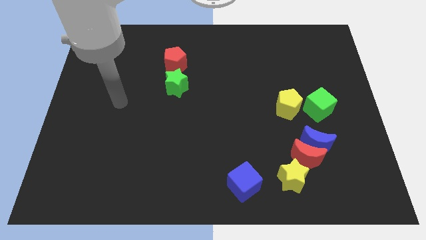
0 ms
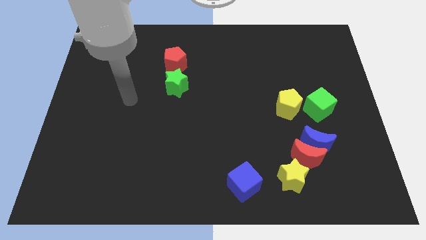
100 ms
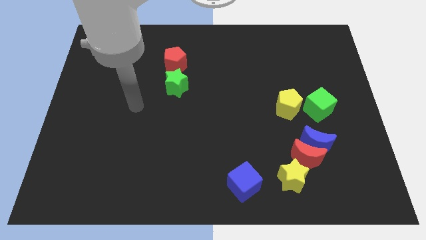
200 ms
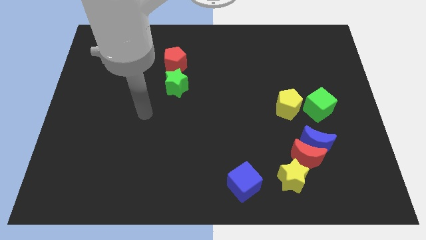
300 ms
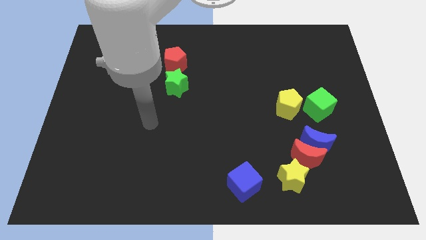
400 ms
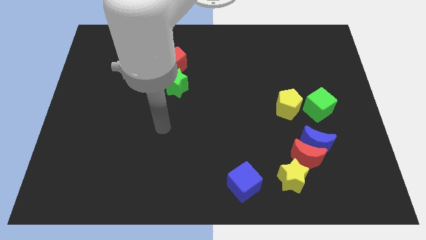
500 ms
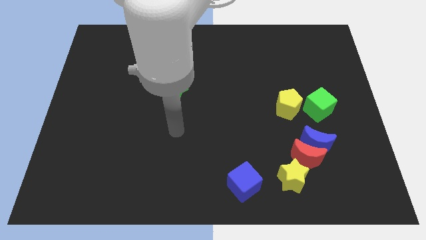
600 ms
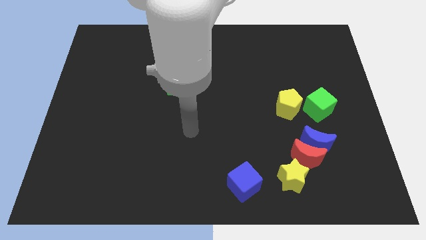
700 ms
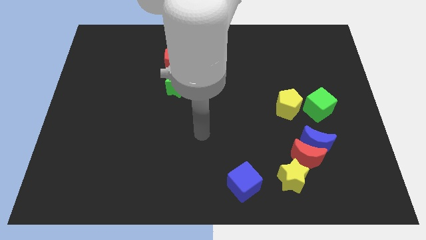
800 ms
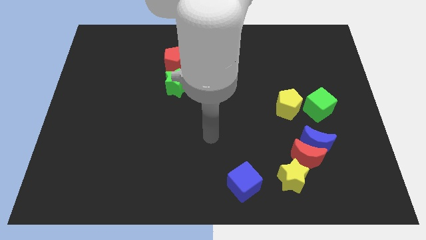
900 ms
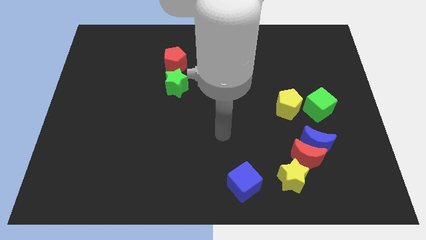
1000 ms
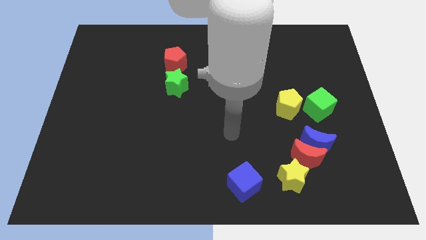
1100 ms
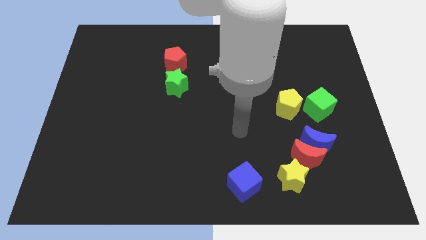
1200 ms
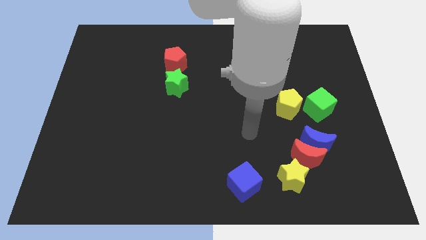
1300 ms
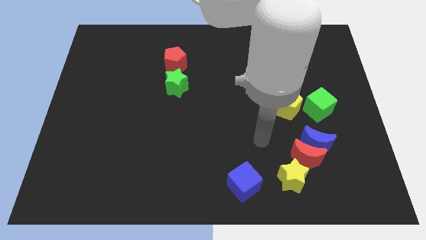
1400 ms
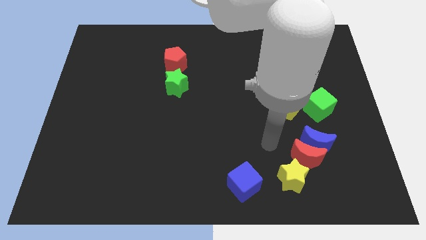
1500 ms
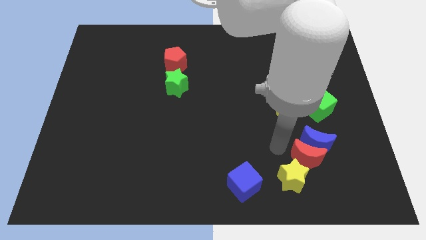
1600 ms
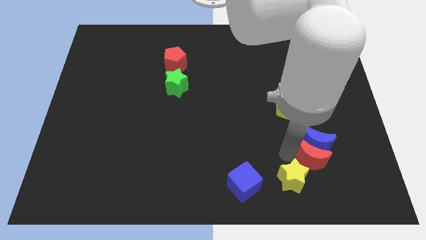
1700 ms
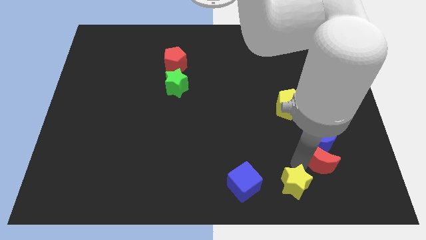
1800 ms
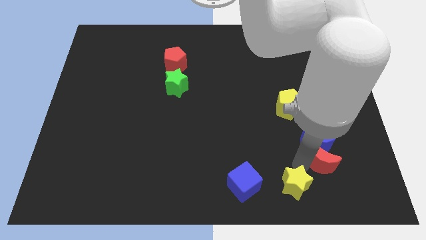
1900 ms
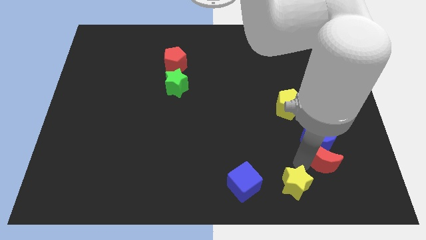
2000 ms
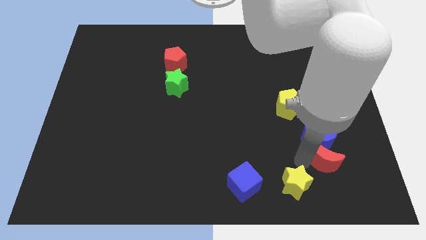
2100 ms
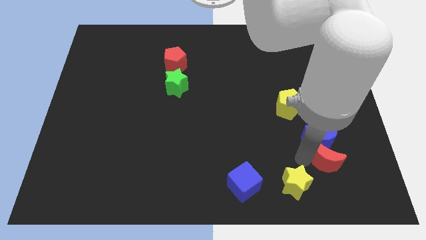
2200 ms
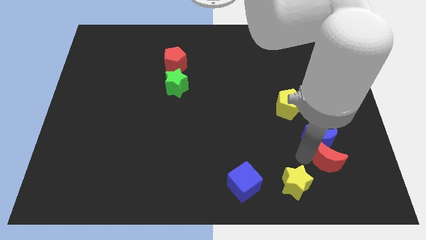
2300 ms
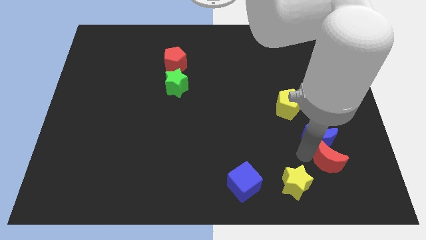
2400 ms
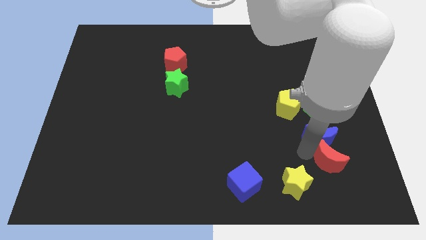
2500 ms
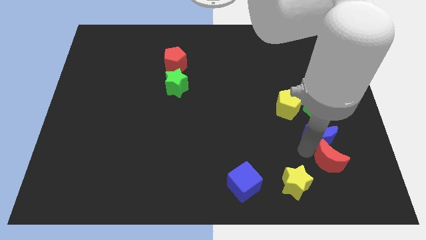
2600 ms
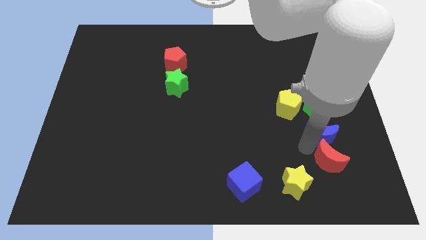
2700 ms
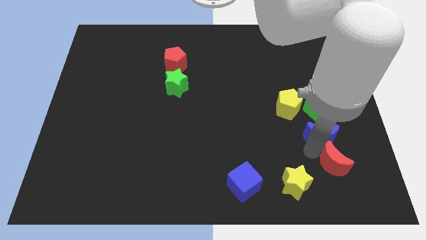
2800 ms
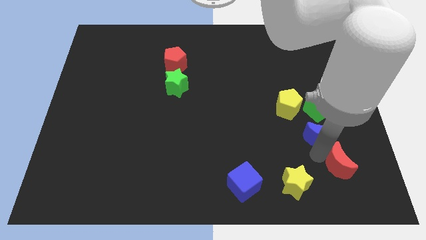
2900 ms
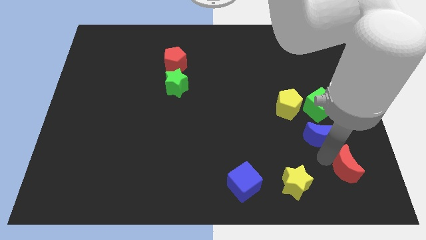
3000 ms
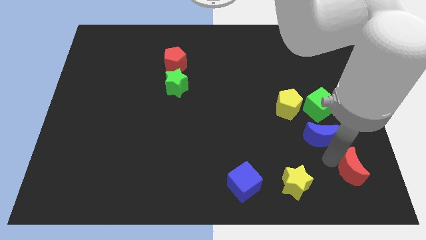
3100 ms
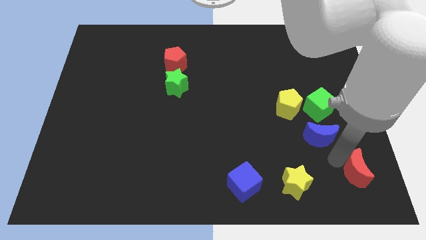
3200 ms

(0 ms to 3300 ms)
pull the blue moon apart from the red moon

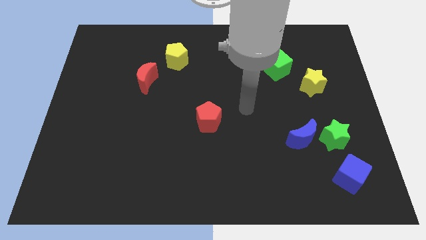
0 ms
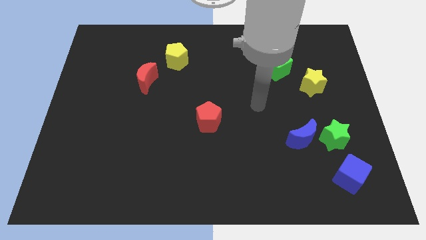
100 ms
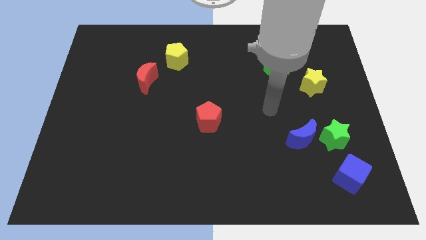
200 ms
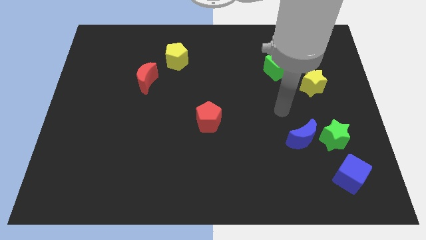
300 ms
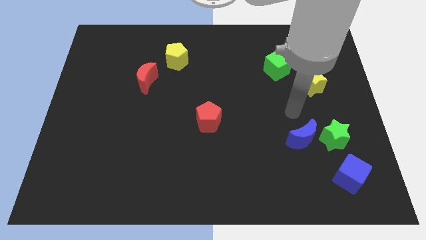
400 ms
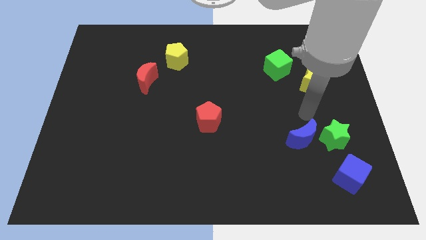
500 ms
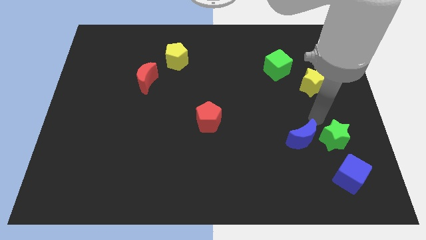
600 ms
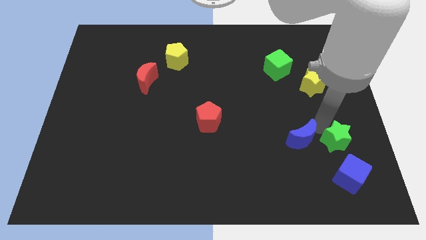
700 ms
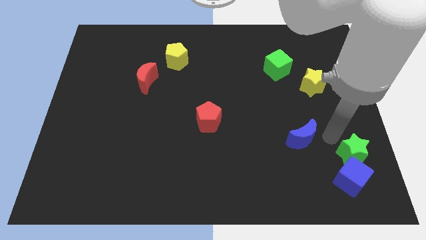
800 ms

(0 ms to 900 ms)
move the blue moon away from the green star

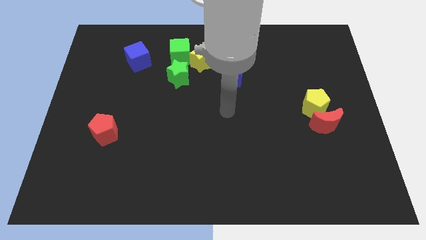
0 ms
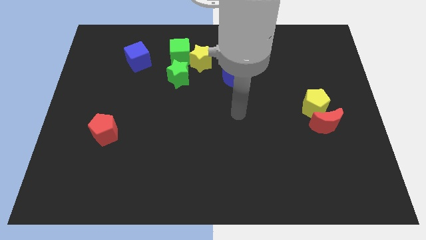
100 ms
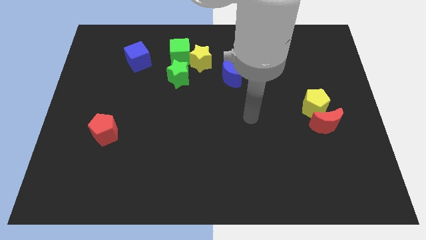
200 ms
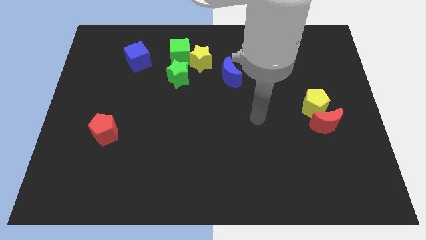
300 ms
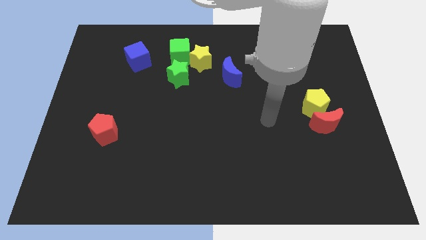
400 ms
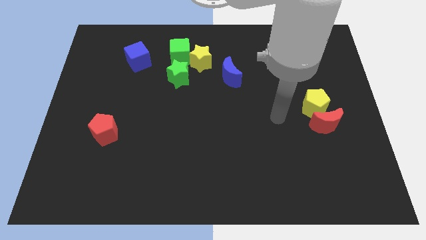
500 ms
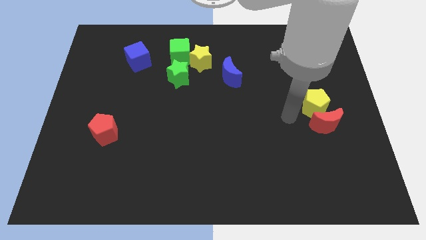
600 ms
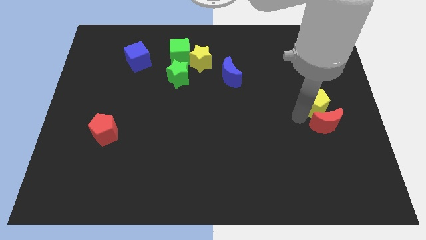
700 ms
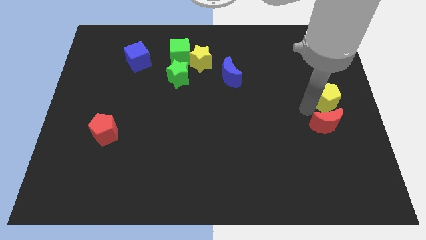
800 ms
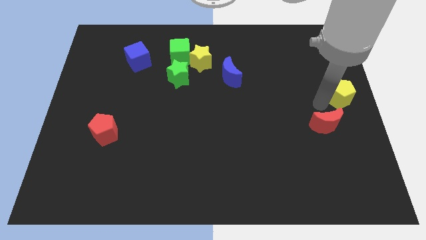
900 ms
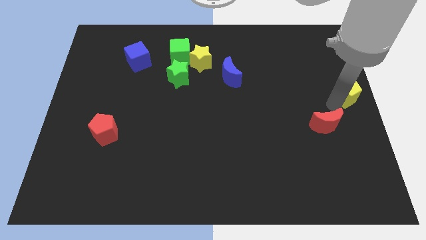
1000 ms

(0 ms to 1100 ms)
pull the red moon apart from the yellow pentagon

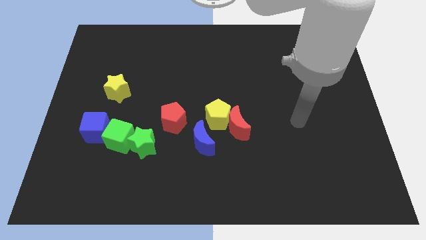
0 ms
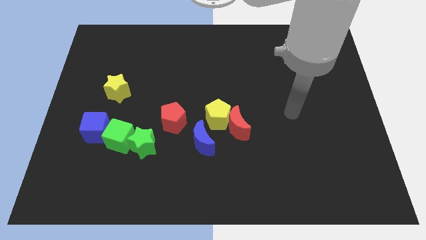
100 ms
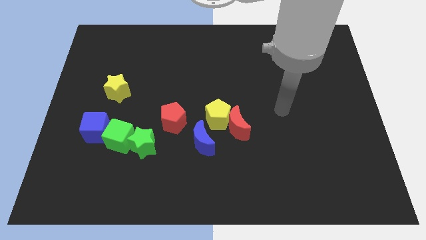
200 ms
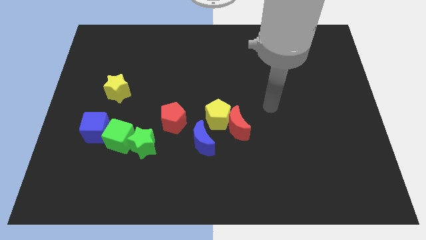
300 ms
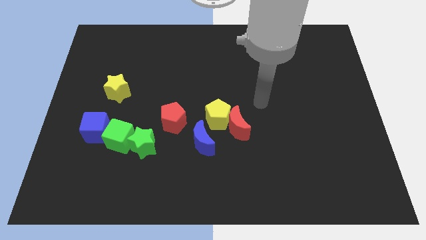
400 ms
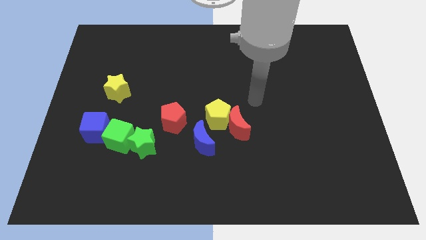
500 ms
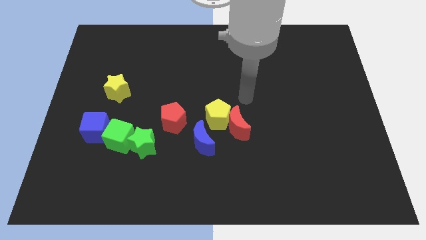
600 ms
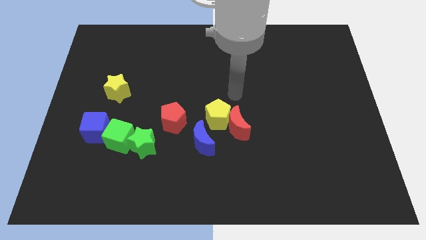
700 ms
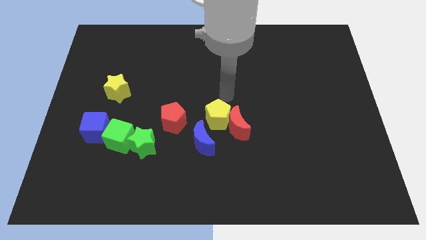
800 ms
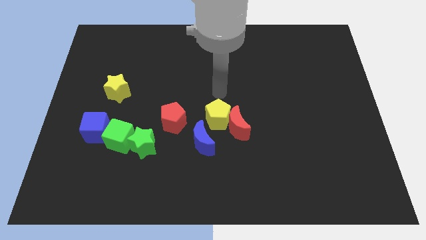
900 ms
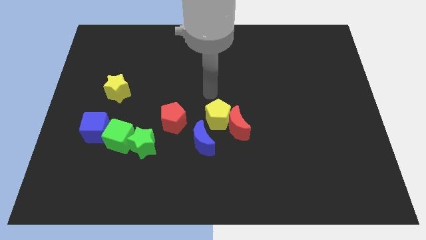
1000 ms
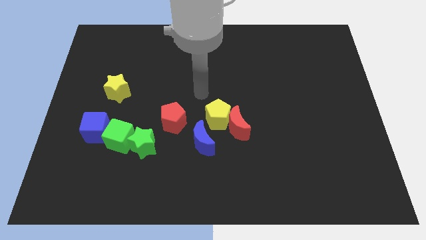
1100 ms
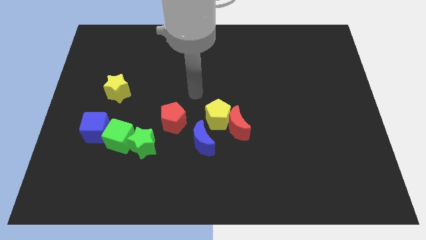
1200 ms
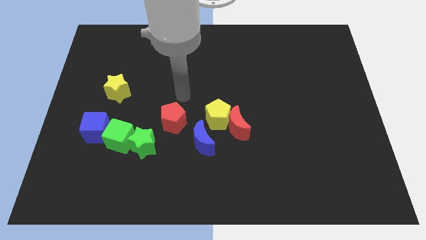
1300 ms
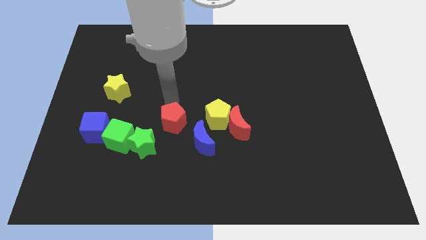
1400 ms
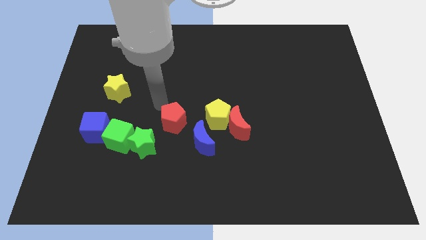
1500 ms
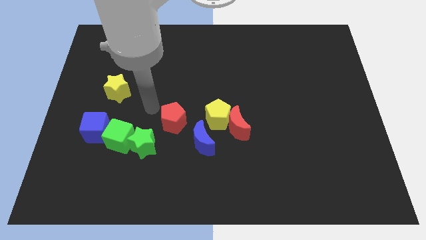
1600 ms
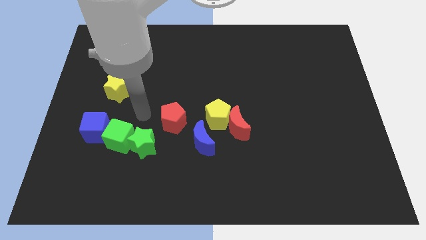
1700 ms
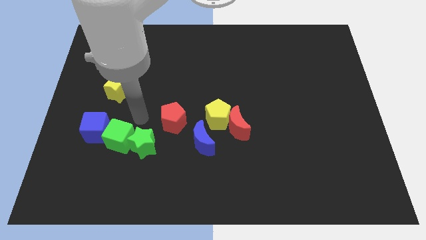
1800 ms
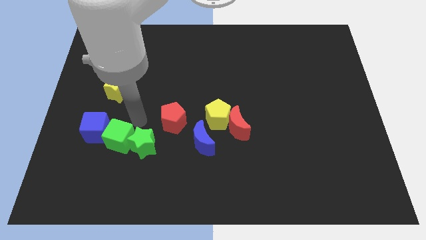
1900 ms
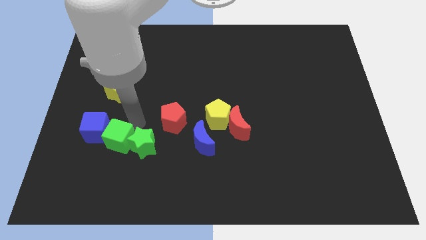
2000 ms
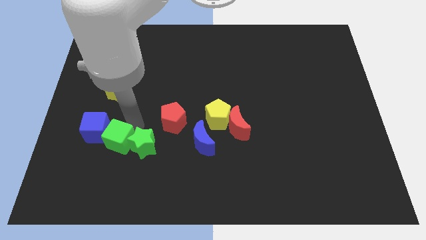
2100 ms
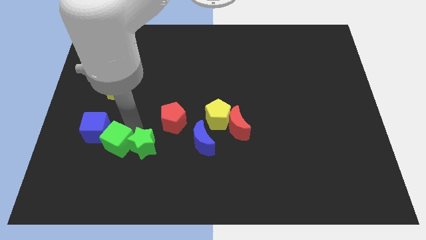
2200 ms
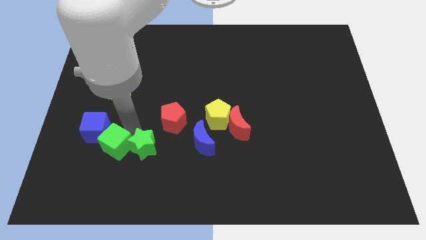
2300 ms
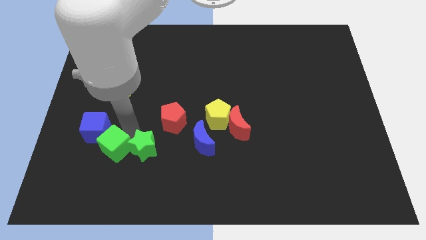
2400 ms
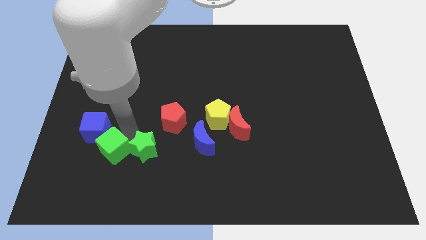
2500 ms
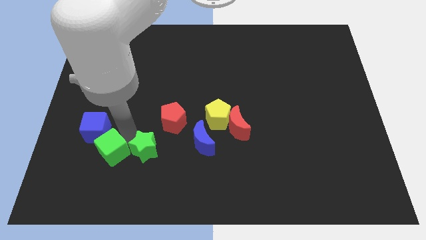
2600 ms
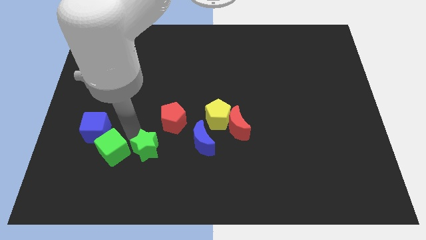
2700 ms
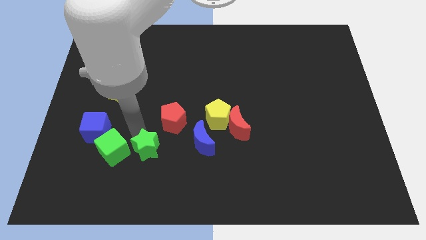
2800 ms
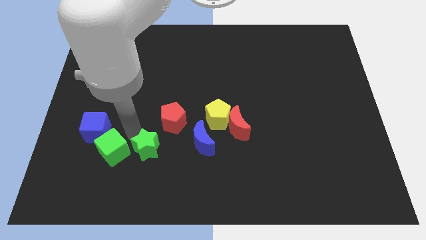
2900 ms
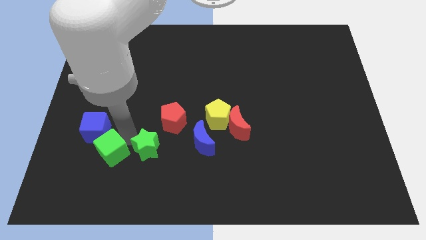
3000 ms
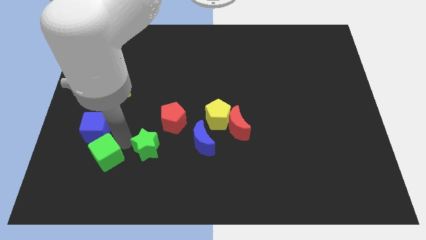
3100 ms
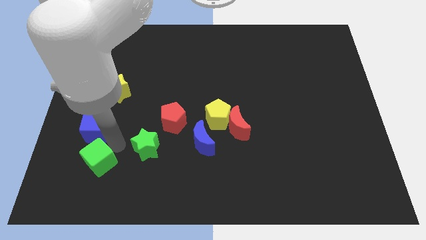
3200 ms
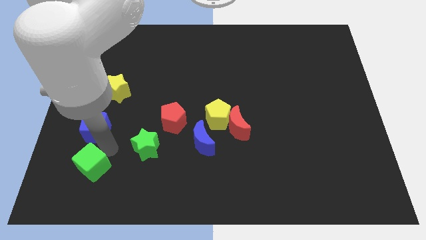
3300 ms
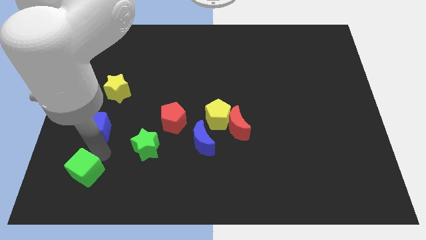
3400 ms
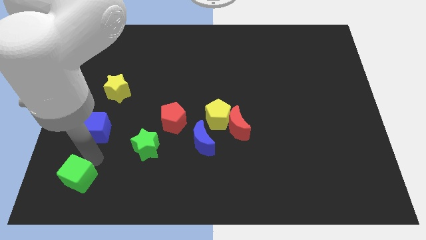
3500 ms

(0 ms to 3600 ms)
pull the green cube apart from the green star and blue cube

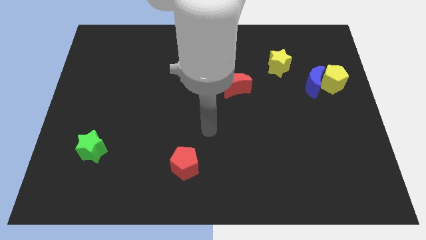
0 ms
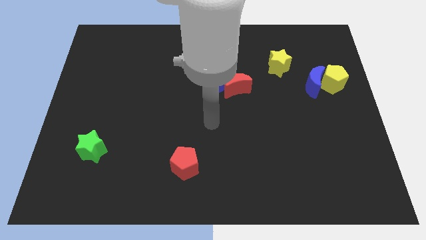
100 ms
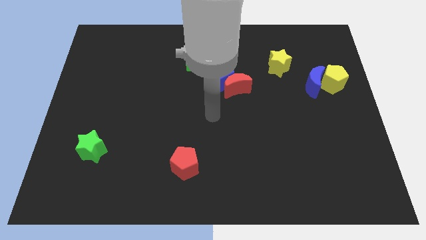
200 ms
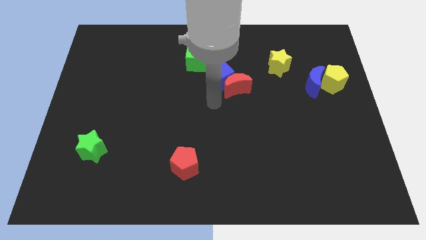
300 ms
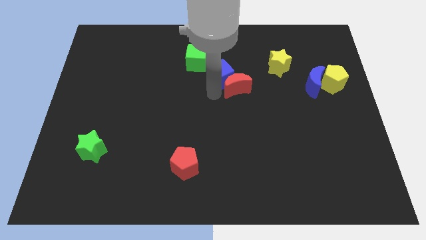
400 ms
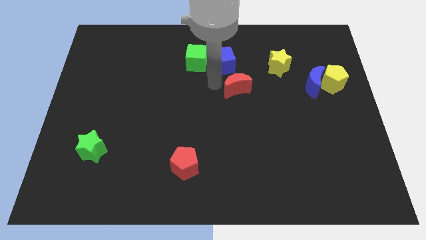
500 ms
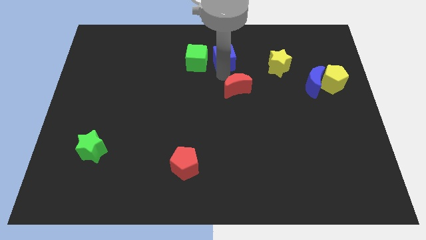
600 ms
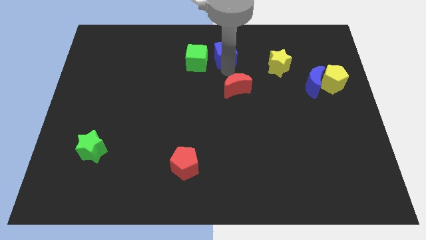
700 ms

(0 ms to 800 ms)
move the red moon away from the blue cube
